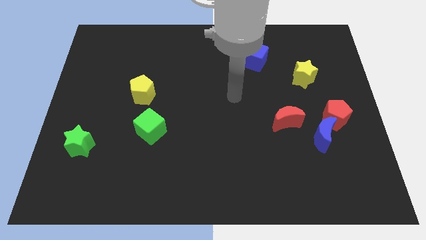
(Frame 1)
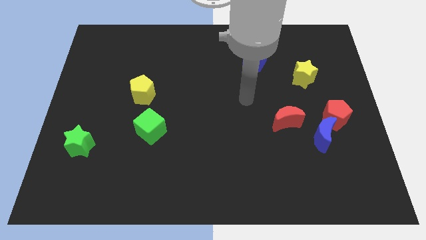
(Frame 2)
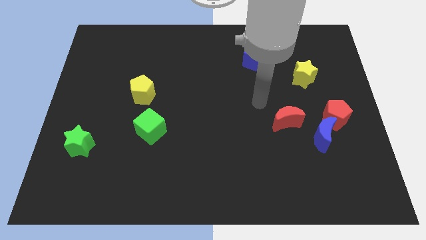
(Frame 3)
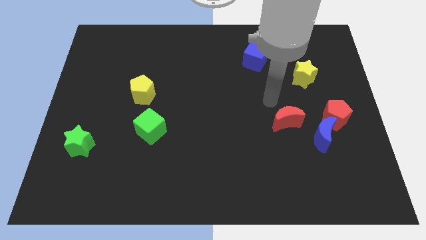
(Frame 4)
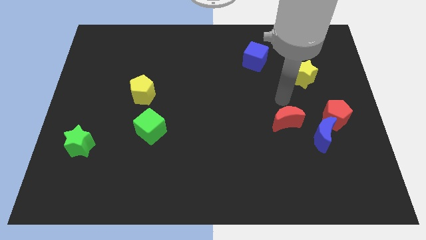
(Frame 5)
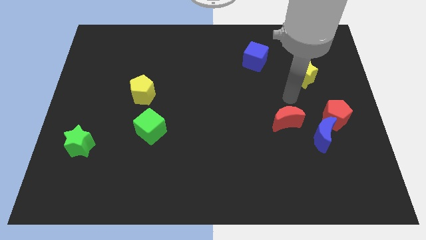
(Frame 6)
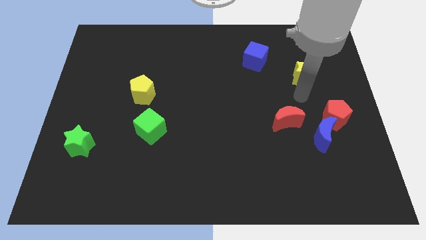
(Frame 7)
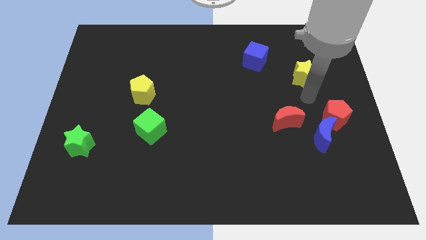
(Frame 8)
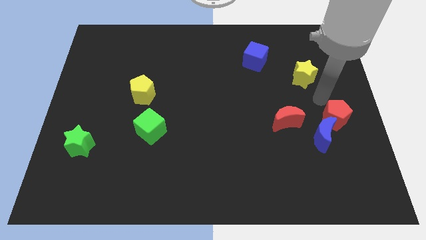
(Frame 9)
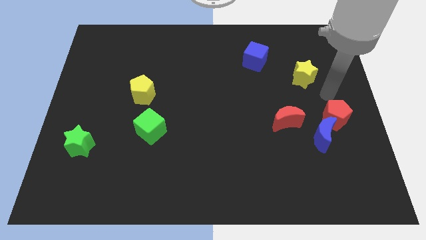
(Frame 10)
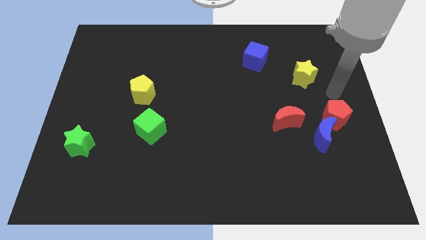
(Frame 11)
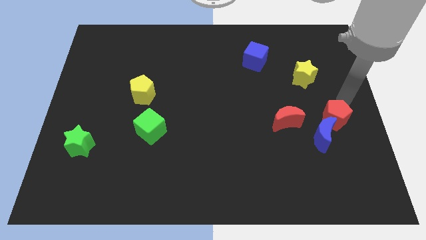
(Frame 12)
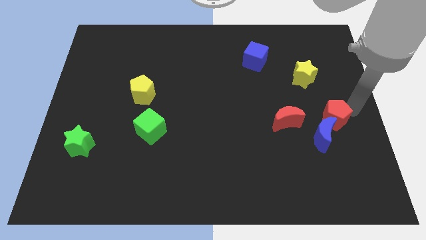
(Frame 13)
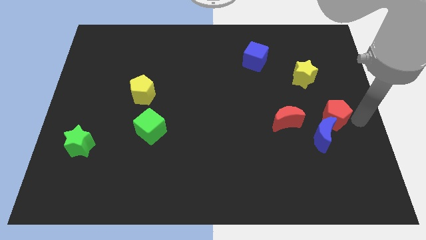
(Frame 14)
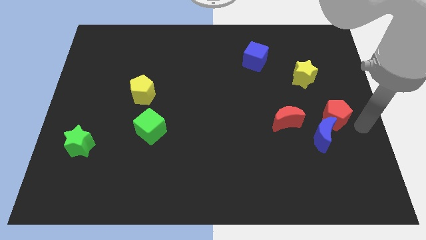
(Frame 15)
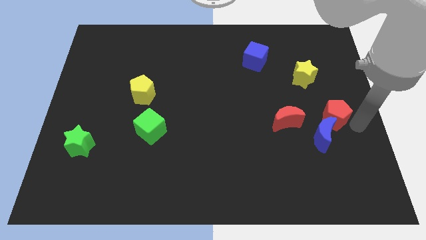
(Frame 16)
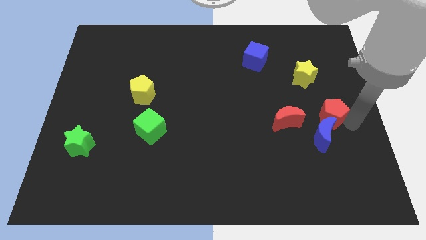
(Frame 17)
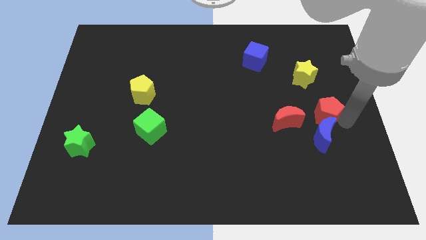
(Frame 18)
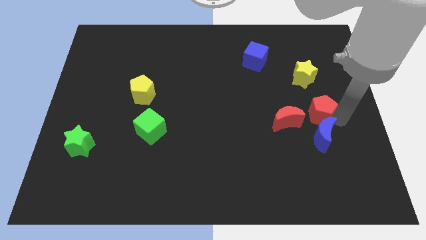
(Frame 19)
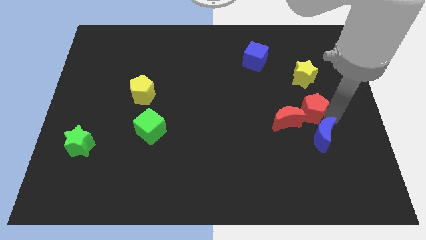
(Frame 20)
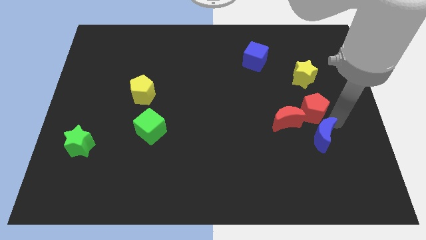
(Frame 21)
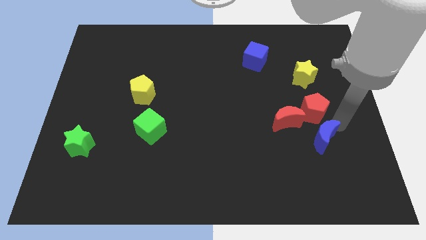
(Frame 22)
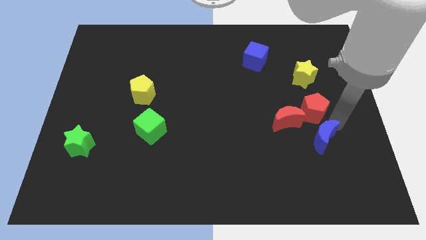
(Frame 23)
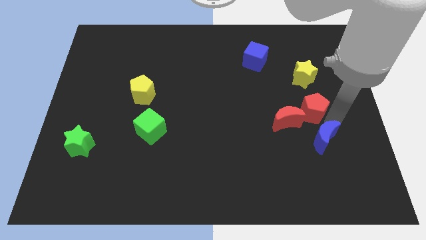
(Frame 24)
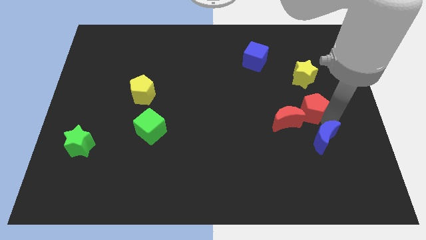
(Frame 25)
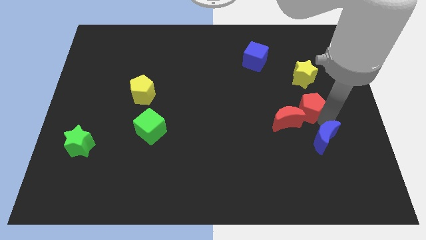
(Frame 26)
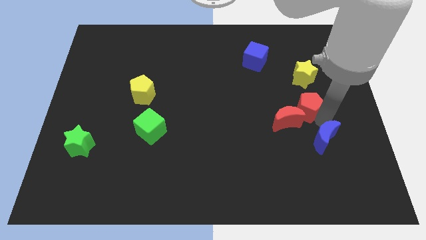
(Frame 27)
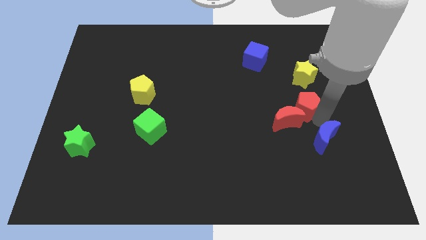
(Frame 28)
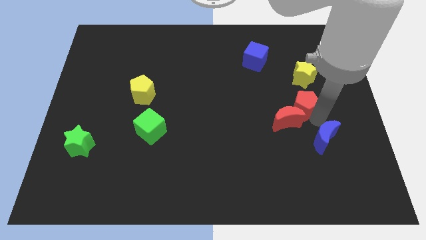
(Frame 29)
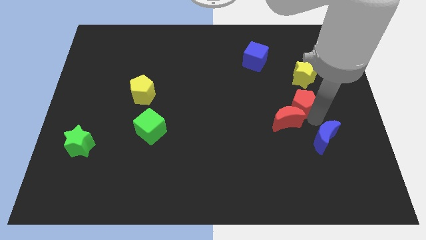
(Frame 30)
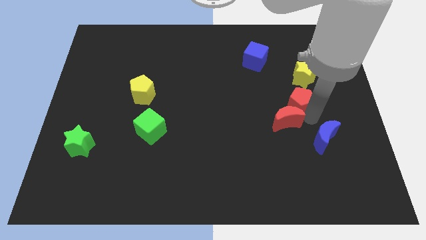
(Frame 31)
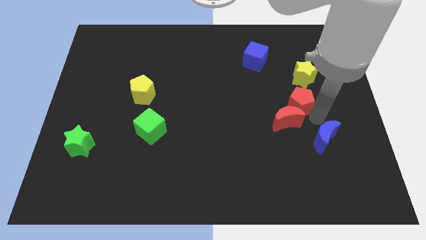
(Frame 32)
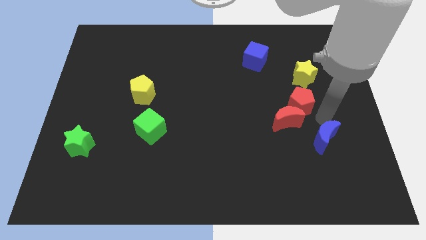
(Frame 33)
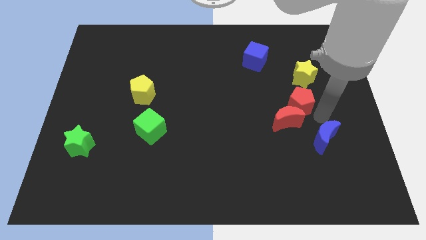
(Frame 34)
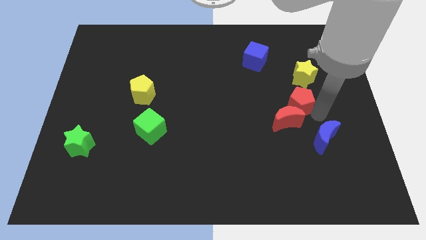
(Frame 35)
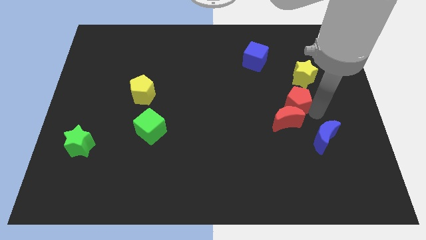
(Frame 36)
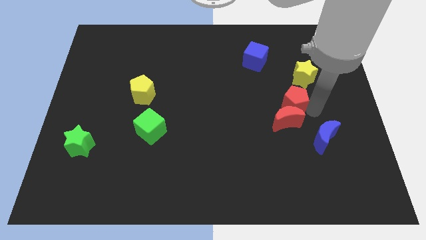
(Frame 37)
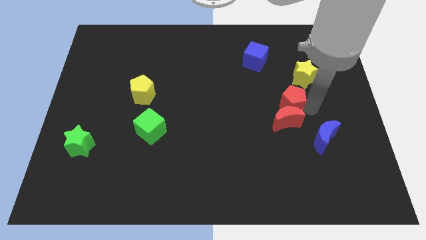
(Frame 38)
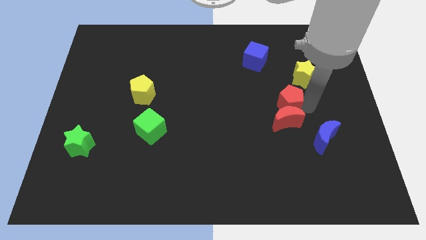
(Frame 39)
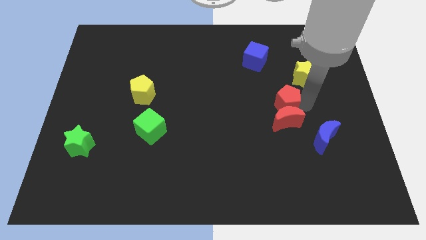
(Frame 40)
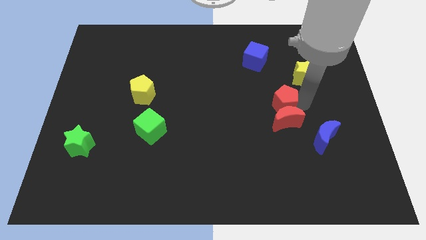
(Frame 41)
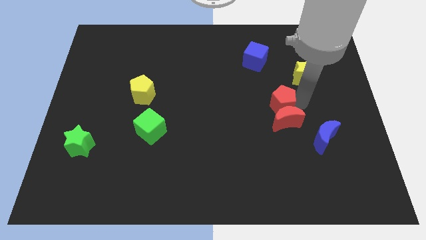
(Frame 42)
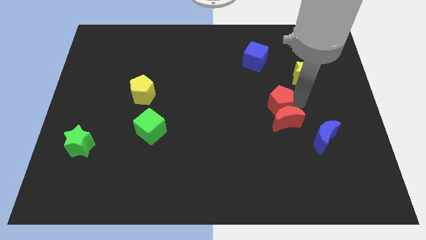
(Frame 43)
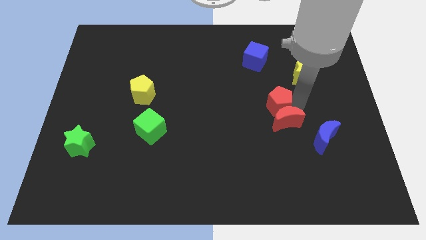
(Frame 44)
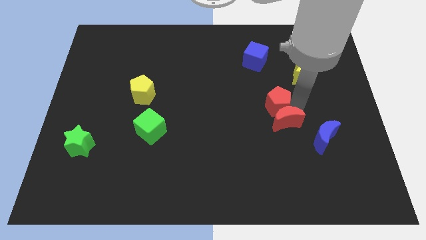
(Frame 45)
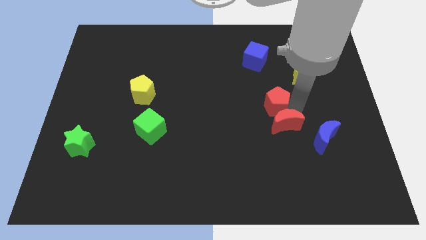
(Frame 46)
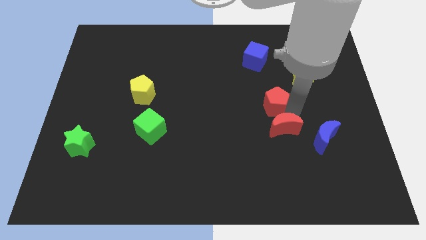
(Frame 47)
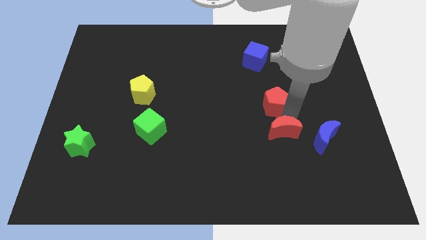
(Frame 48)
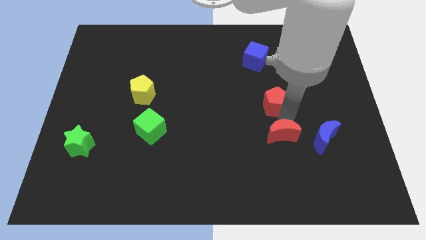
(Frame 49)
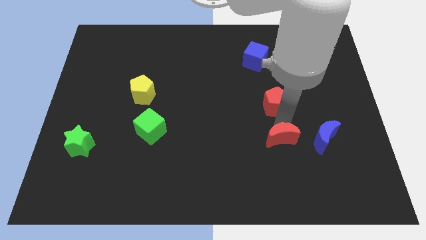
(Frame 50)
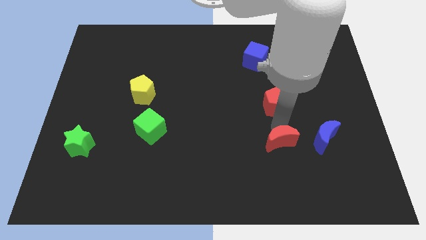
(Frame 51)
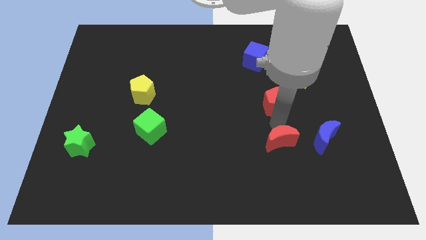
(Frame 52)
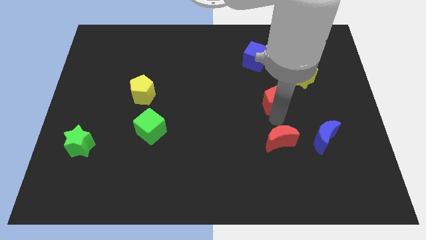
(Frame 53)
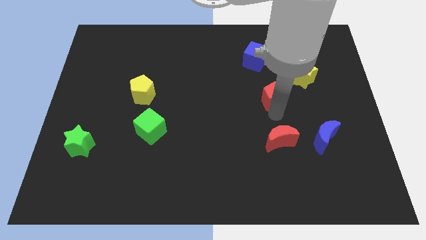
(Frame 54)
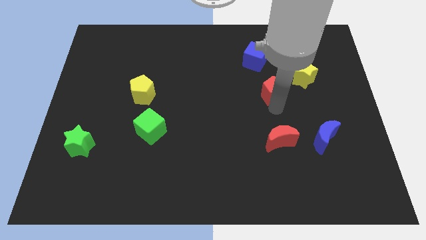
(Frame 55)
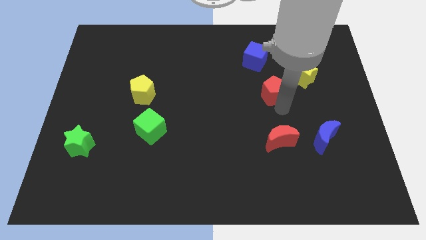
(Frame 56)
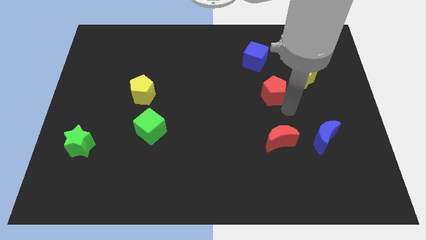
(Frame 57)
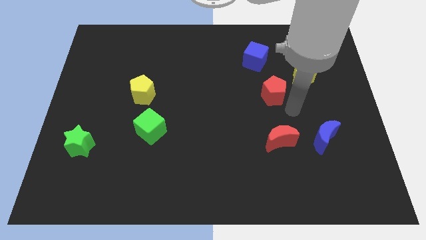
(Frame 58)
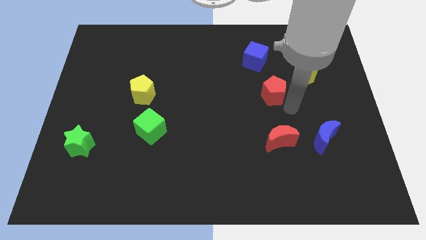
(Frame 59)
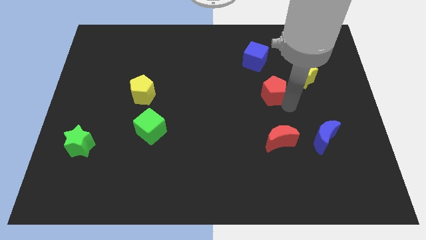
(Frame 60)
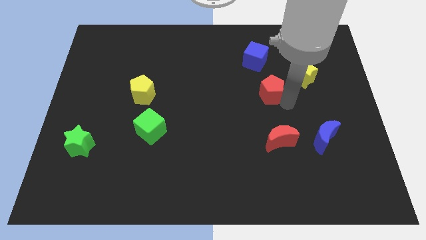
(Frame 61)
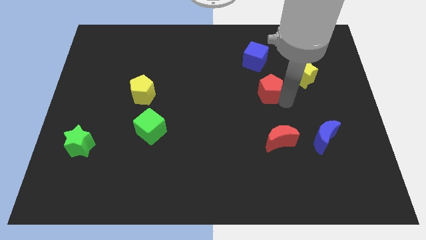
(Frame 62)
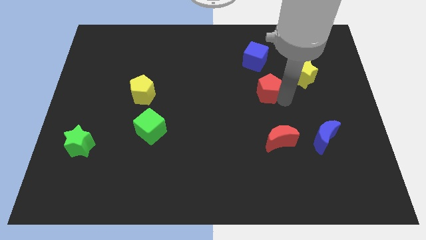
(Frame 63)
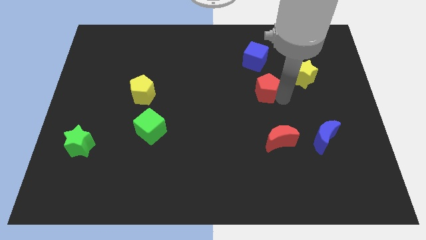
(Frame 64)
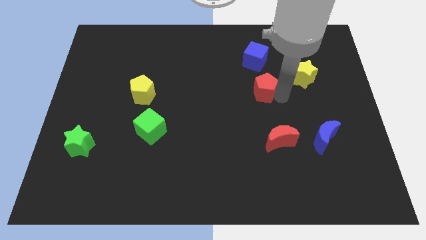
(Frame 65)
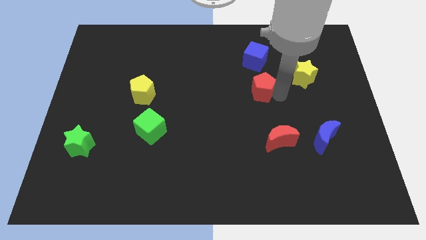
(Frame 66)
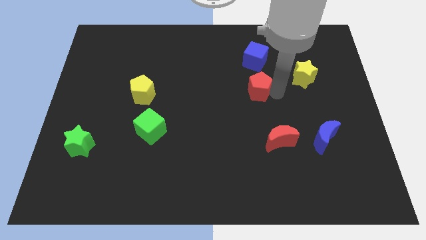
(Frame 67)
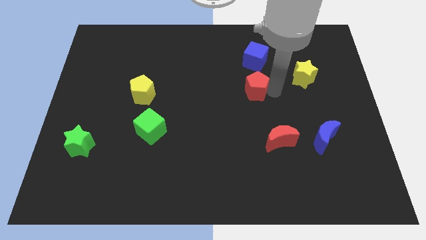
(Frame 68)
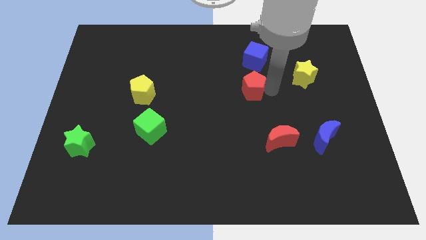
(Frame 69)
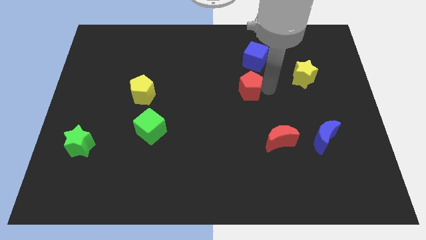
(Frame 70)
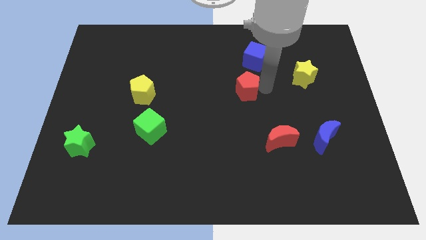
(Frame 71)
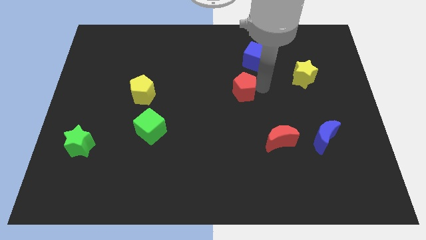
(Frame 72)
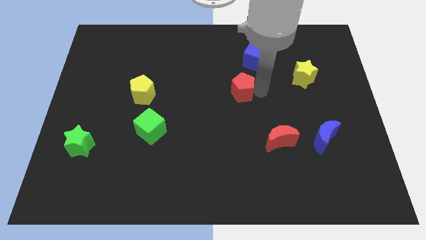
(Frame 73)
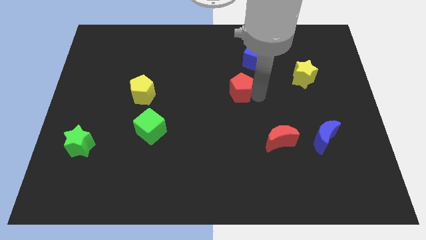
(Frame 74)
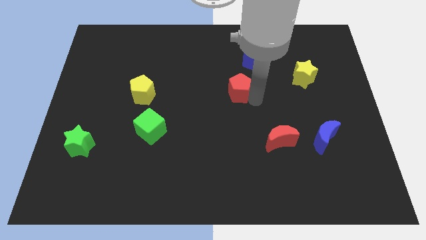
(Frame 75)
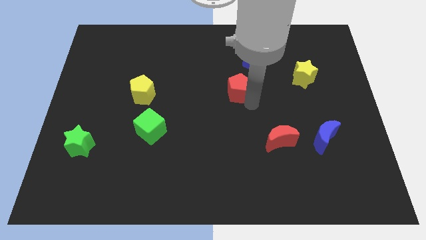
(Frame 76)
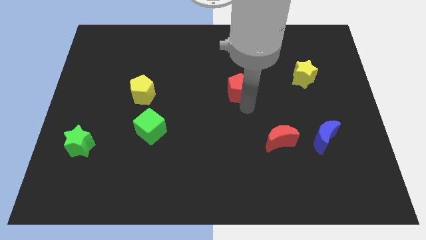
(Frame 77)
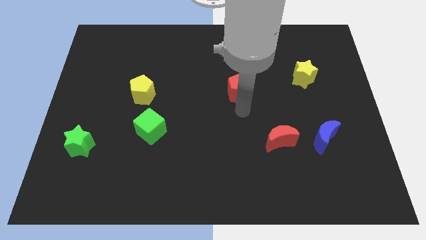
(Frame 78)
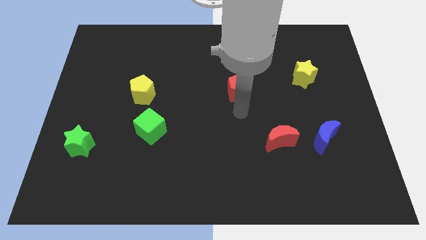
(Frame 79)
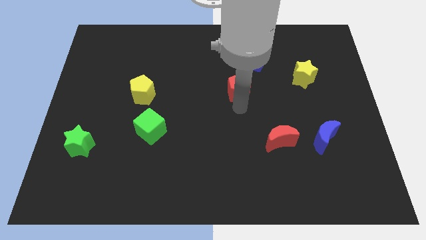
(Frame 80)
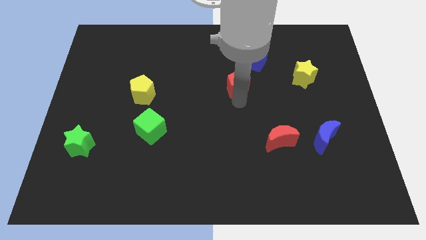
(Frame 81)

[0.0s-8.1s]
slide the red pentagon diagonally down and to the left of the blue cube
